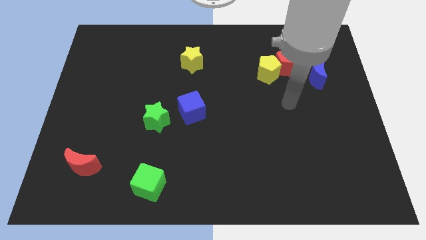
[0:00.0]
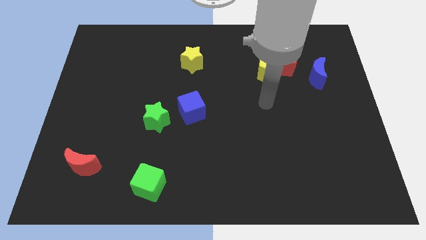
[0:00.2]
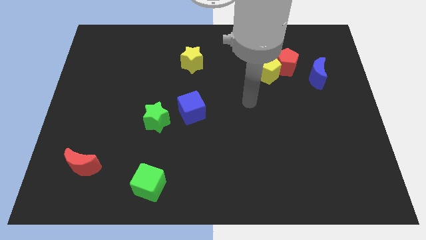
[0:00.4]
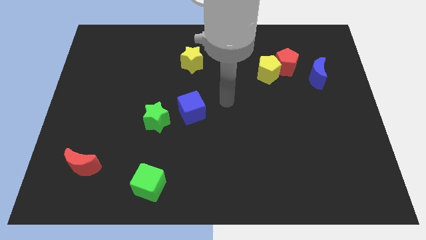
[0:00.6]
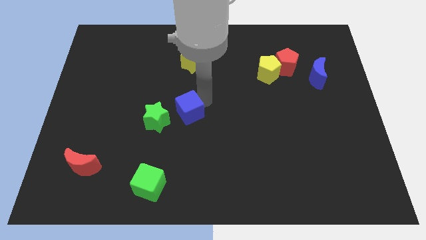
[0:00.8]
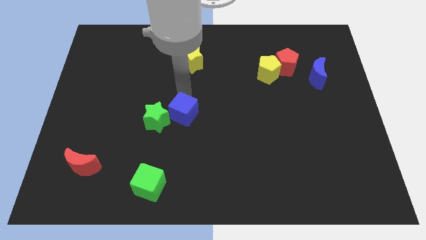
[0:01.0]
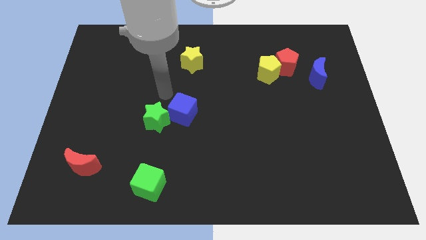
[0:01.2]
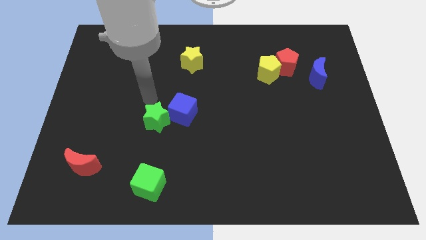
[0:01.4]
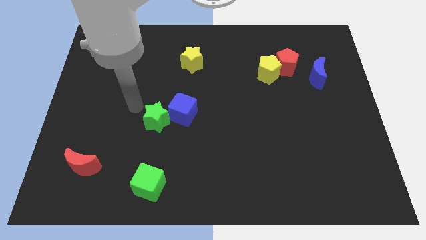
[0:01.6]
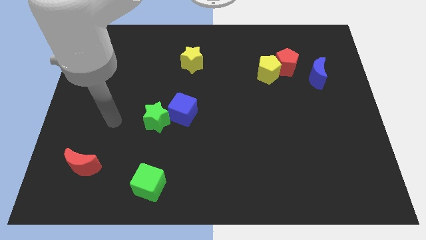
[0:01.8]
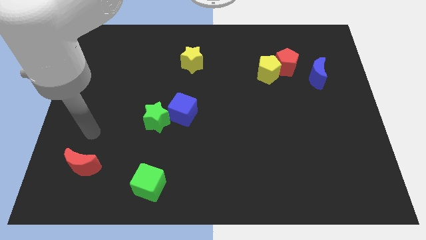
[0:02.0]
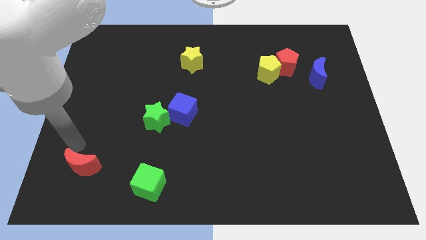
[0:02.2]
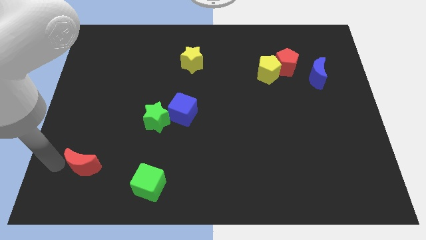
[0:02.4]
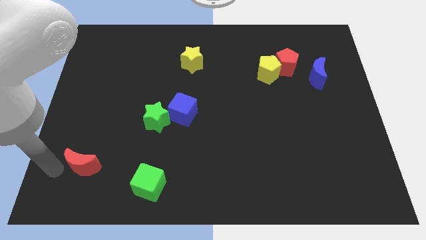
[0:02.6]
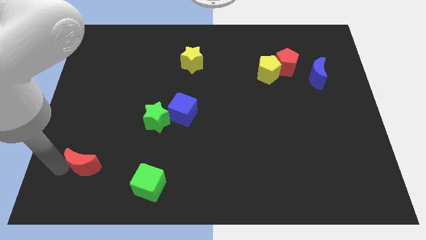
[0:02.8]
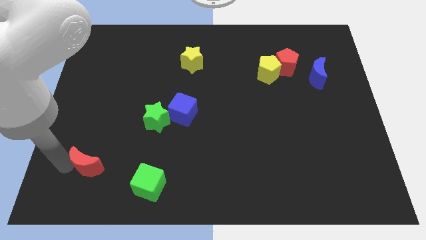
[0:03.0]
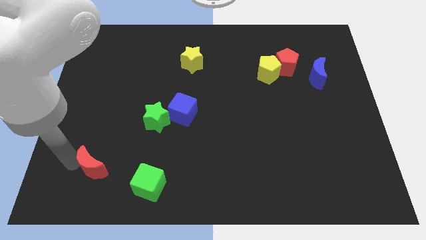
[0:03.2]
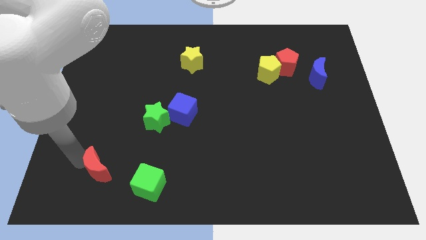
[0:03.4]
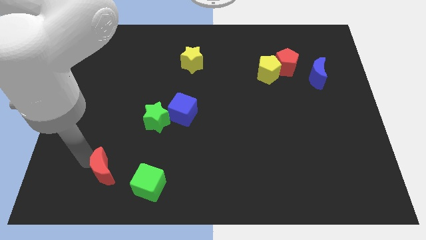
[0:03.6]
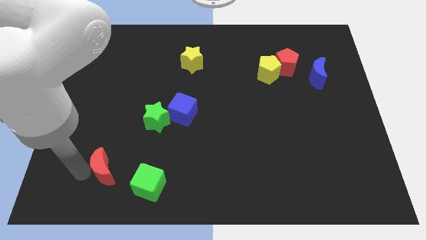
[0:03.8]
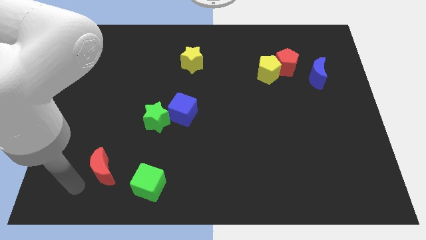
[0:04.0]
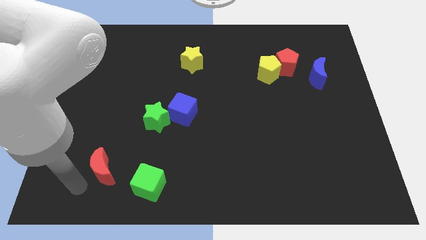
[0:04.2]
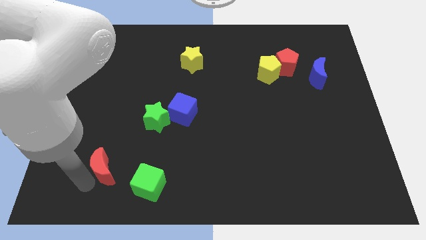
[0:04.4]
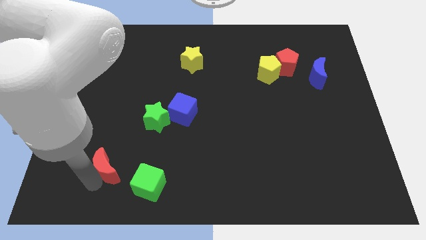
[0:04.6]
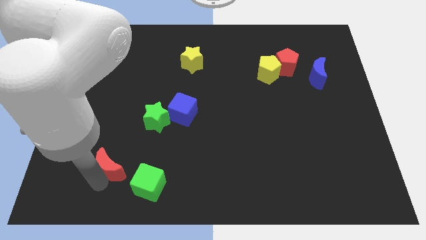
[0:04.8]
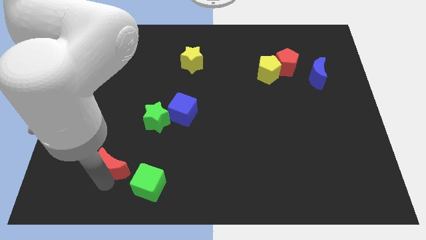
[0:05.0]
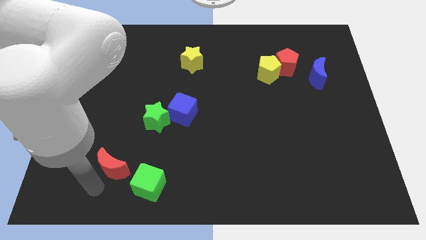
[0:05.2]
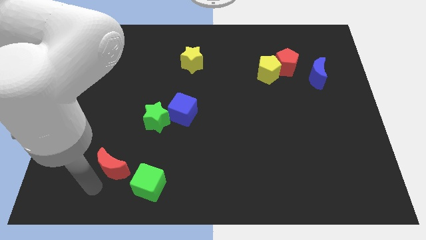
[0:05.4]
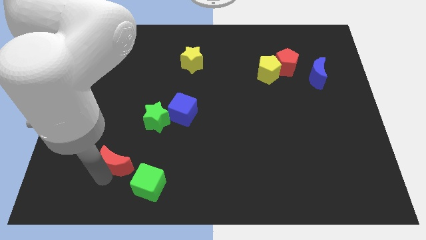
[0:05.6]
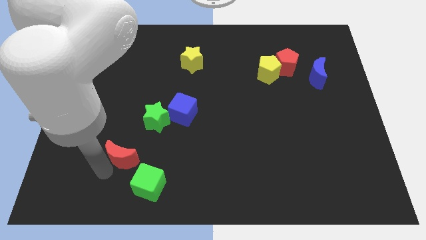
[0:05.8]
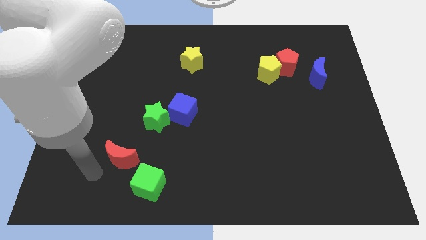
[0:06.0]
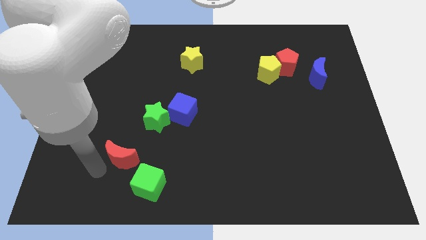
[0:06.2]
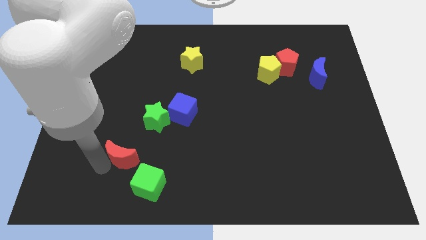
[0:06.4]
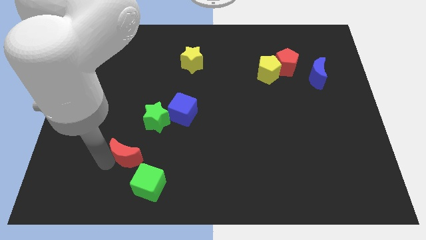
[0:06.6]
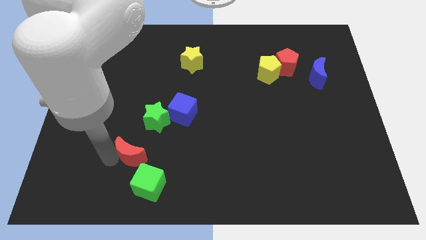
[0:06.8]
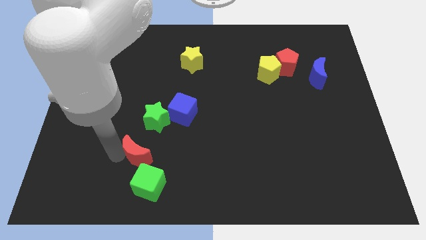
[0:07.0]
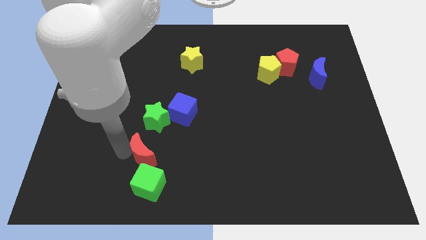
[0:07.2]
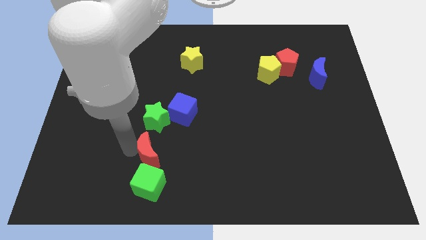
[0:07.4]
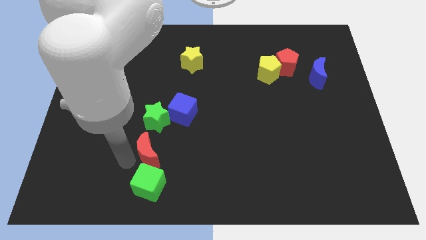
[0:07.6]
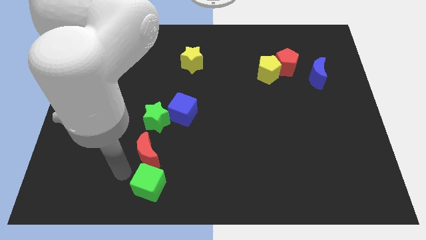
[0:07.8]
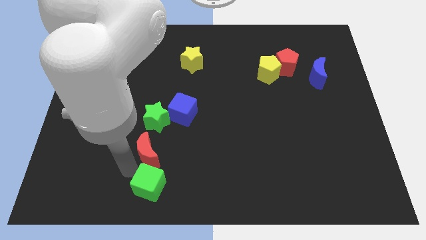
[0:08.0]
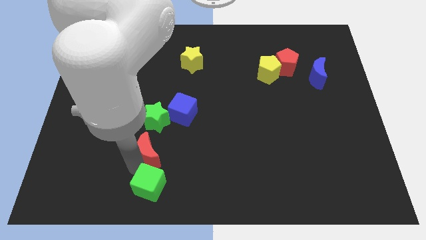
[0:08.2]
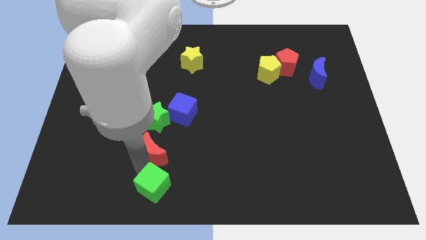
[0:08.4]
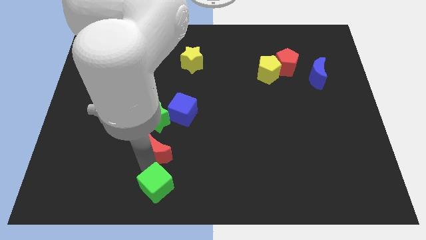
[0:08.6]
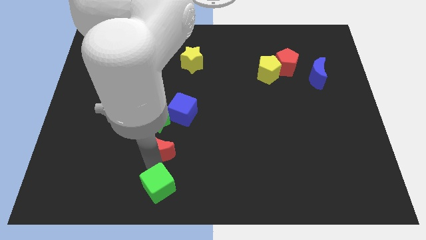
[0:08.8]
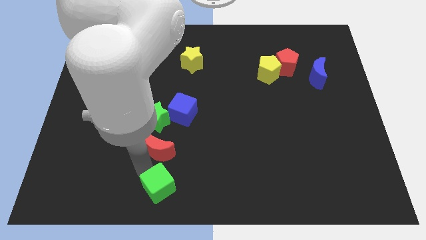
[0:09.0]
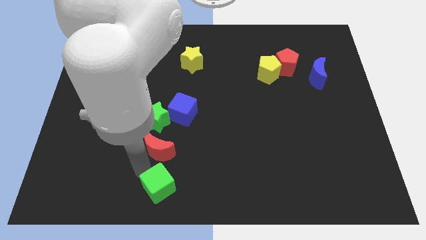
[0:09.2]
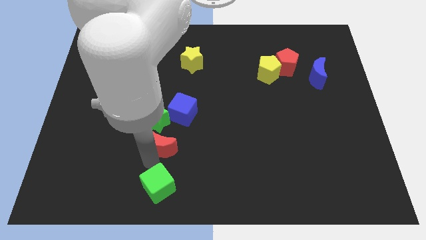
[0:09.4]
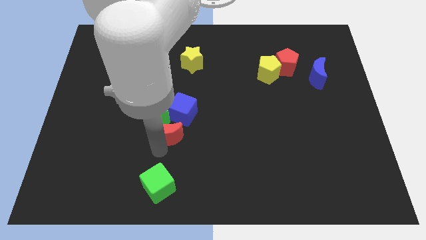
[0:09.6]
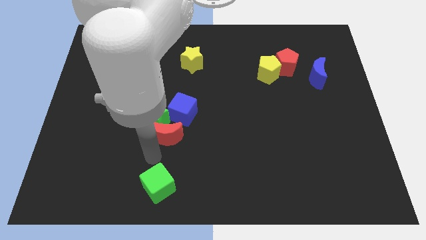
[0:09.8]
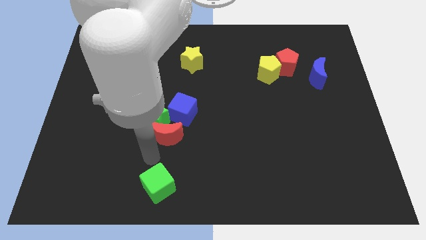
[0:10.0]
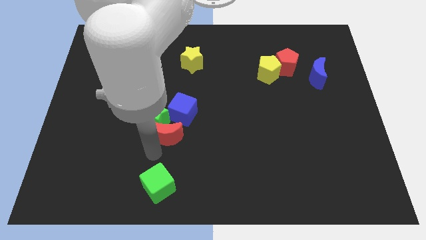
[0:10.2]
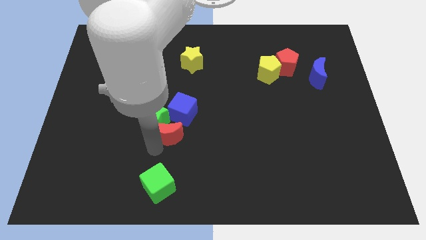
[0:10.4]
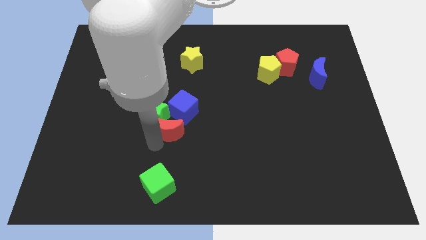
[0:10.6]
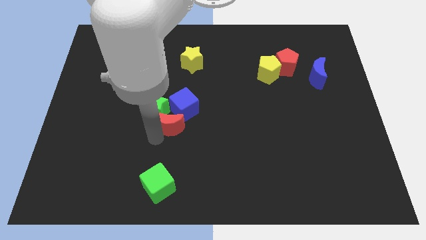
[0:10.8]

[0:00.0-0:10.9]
slide the red moon next to the blue cube

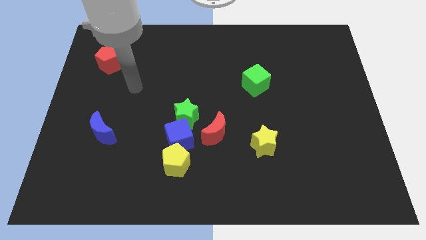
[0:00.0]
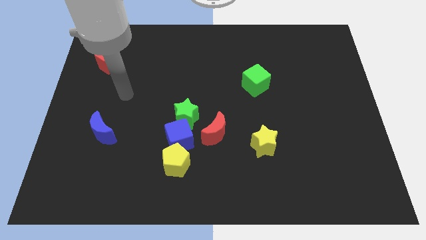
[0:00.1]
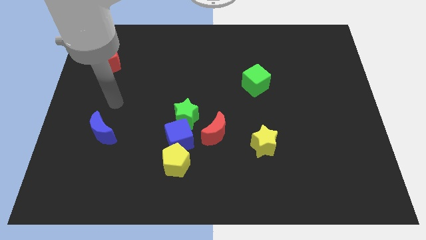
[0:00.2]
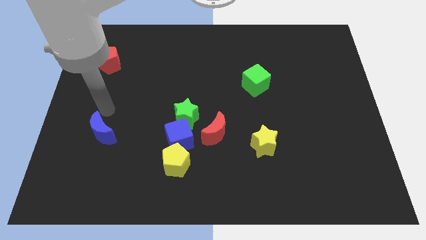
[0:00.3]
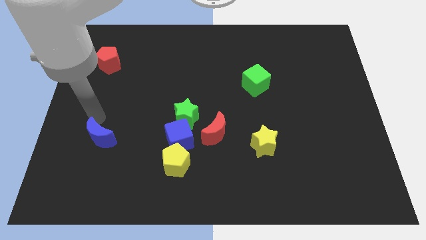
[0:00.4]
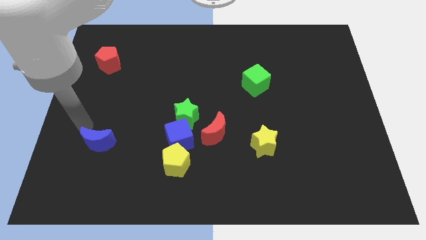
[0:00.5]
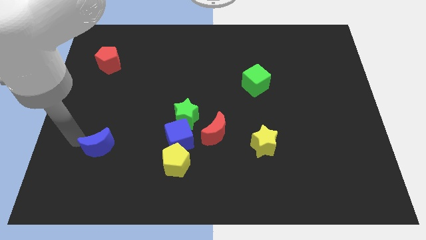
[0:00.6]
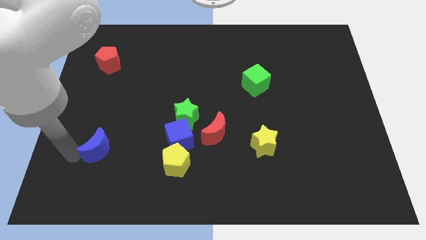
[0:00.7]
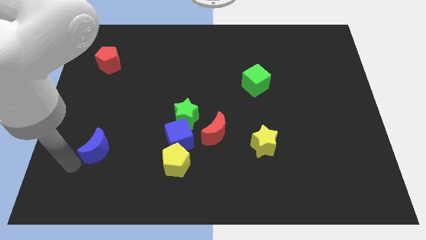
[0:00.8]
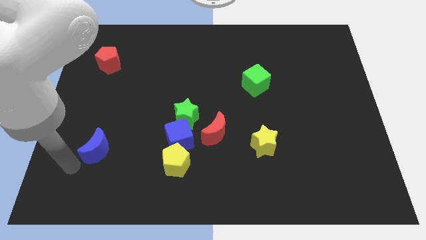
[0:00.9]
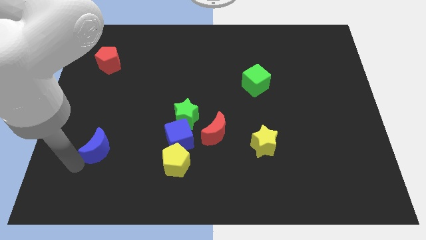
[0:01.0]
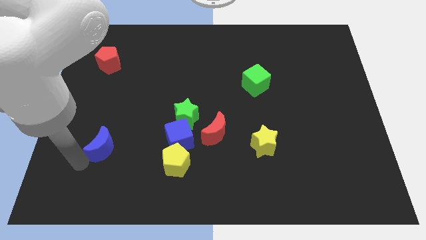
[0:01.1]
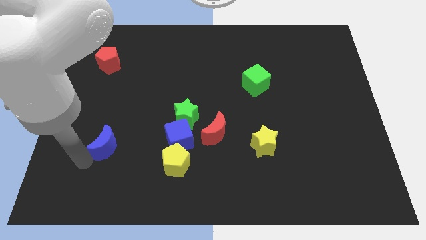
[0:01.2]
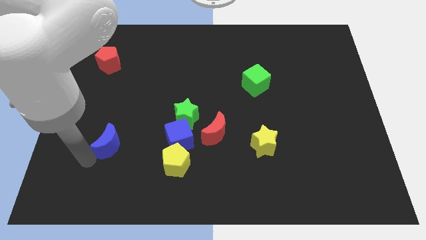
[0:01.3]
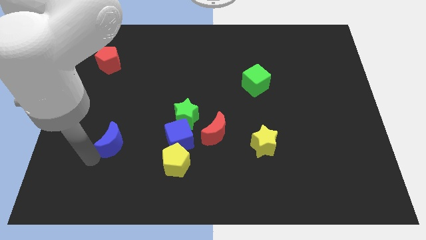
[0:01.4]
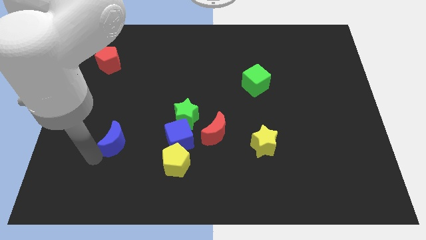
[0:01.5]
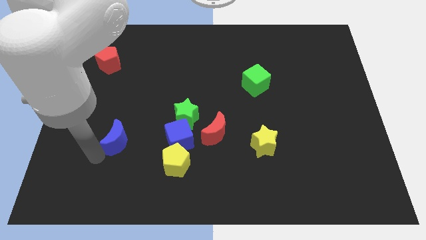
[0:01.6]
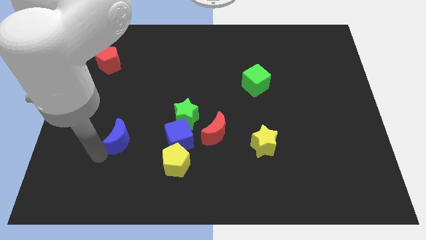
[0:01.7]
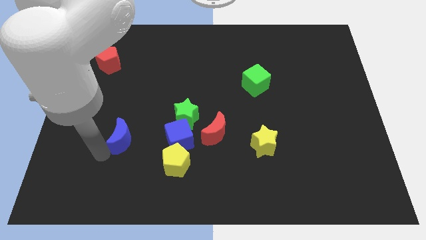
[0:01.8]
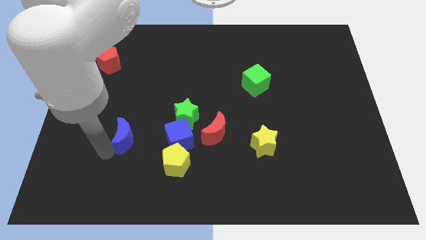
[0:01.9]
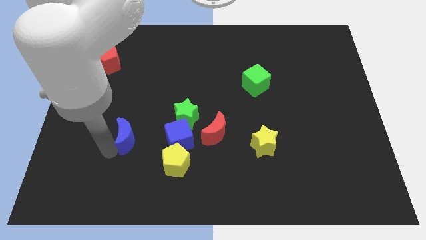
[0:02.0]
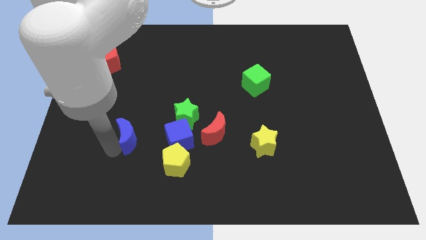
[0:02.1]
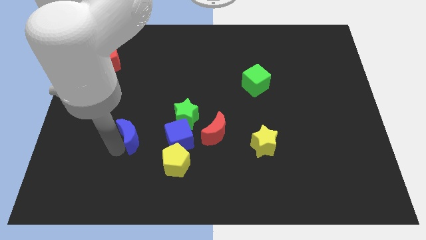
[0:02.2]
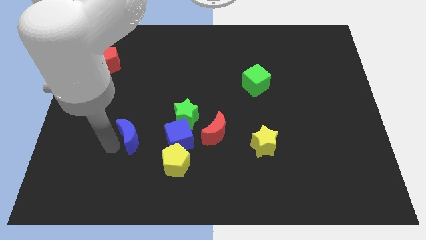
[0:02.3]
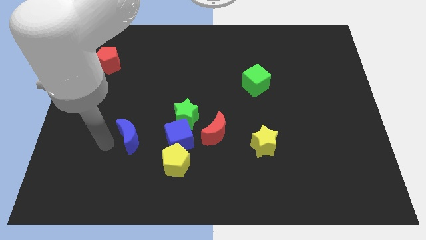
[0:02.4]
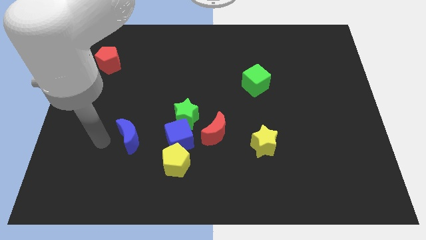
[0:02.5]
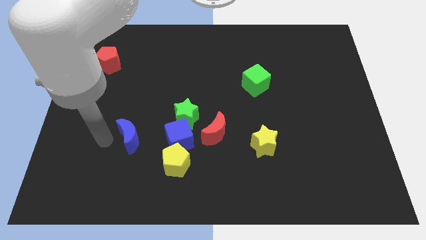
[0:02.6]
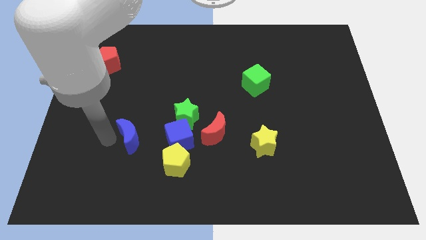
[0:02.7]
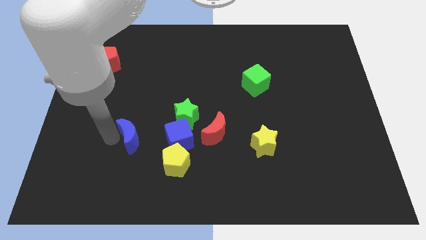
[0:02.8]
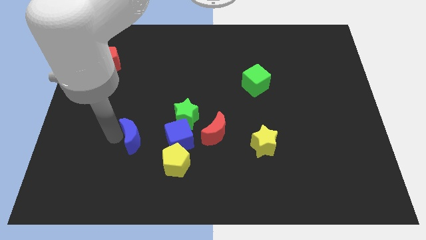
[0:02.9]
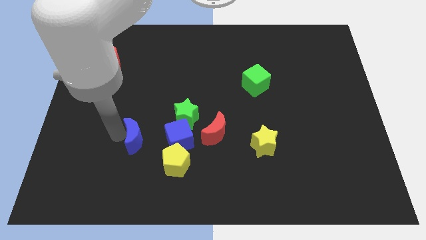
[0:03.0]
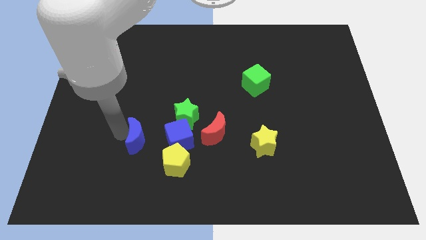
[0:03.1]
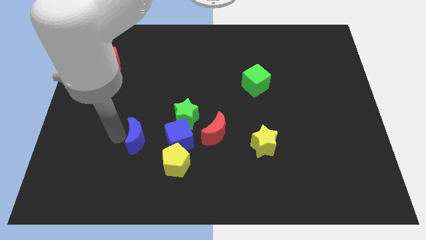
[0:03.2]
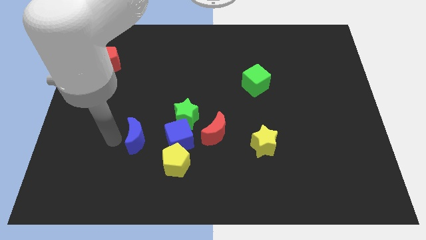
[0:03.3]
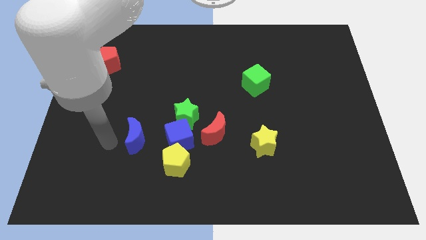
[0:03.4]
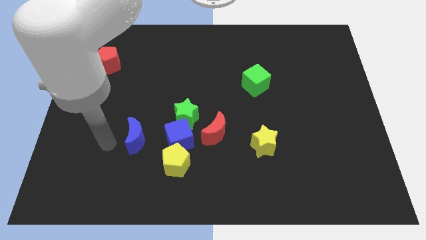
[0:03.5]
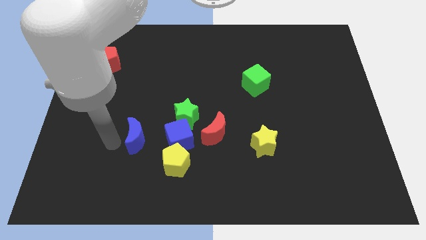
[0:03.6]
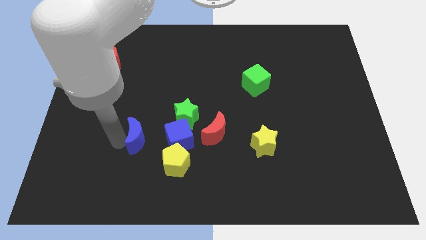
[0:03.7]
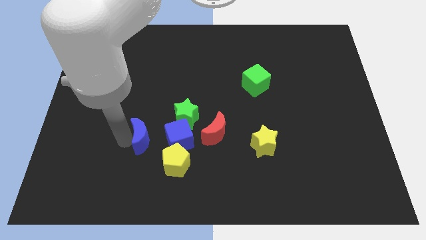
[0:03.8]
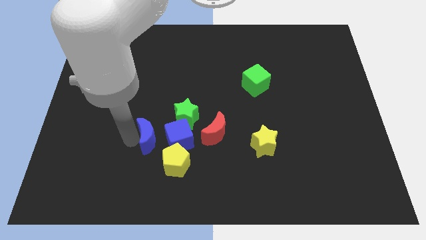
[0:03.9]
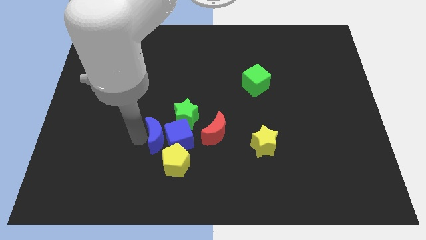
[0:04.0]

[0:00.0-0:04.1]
move the blue moon to the blue cube
